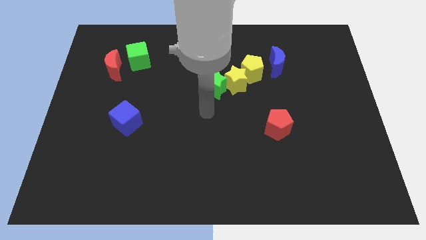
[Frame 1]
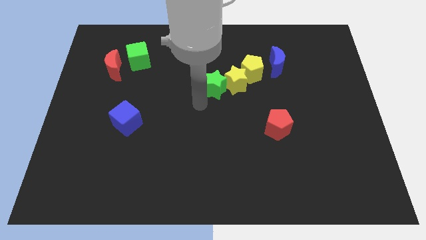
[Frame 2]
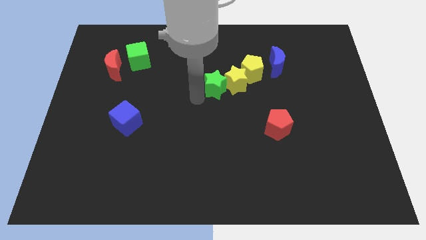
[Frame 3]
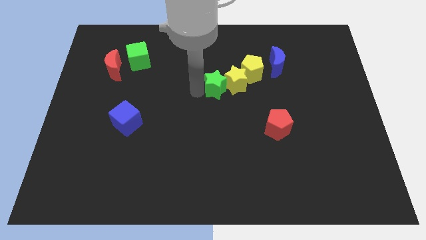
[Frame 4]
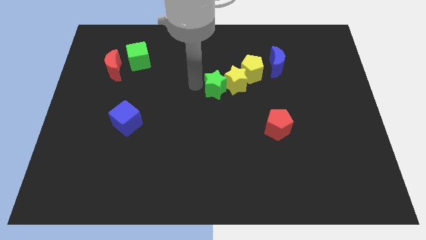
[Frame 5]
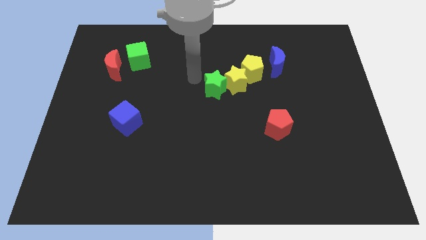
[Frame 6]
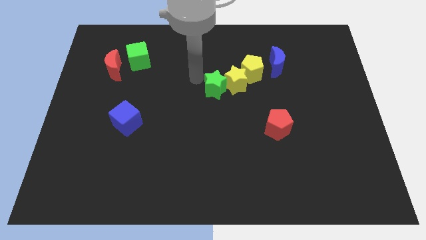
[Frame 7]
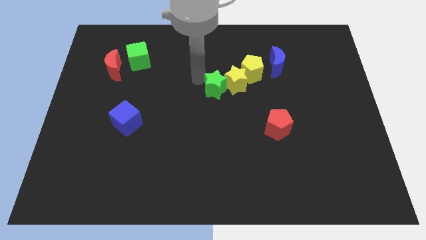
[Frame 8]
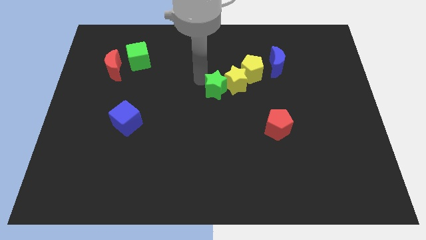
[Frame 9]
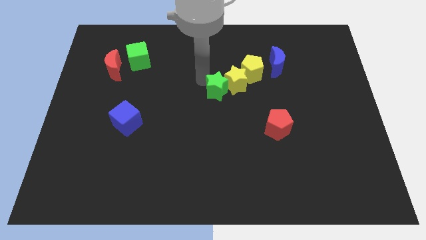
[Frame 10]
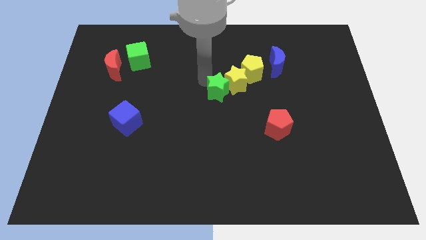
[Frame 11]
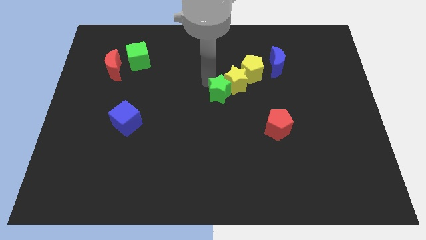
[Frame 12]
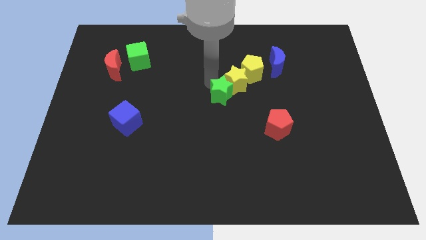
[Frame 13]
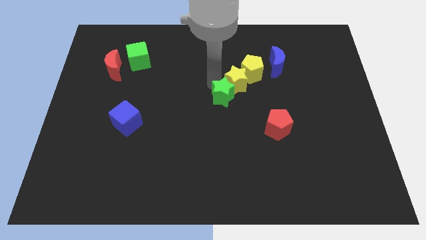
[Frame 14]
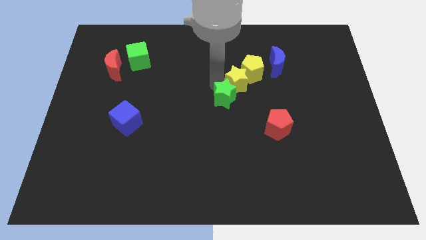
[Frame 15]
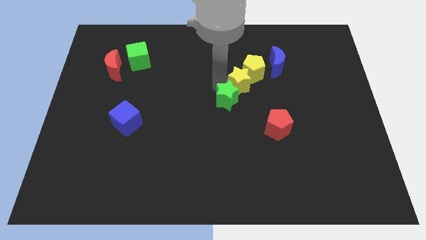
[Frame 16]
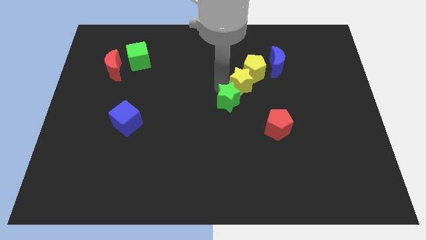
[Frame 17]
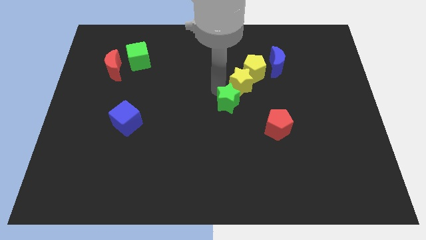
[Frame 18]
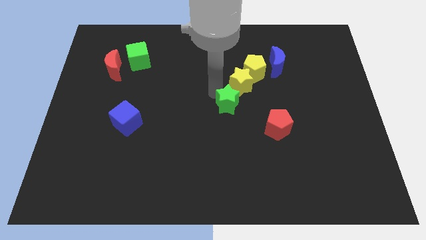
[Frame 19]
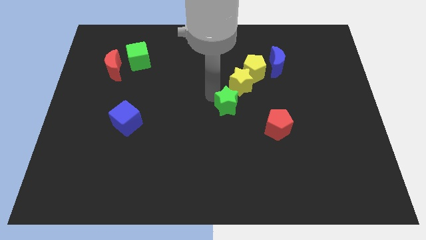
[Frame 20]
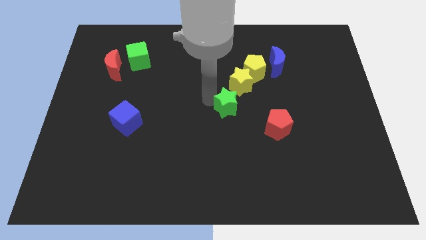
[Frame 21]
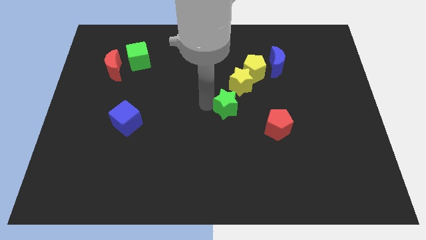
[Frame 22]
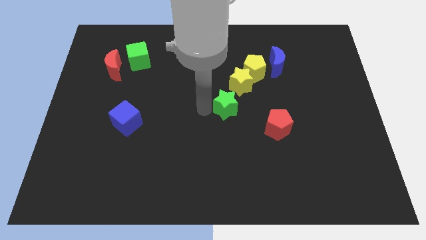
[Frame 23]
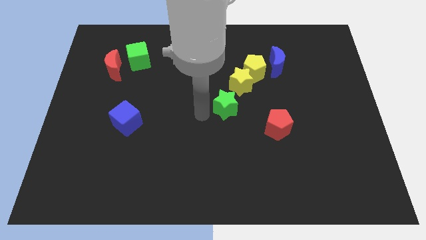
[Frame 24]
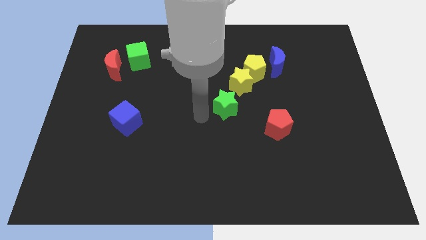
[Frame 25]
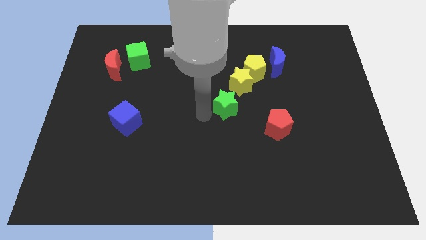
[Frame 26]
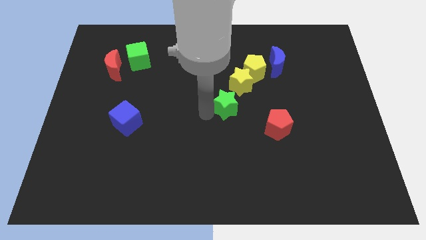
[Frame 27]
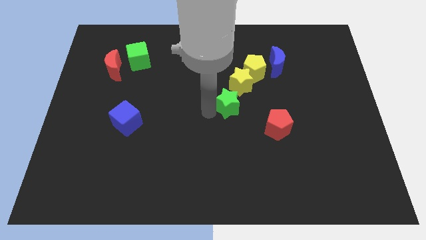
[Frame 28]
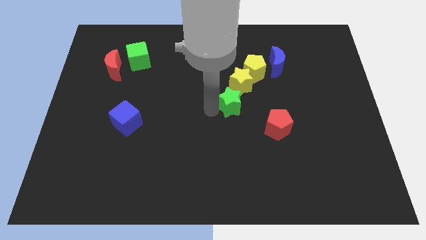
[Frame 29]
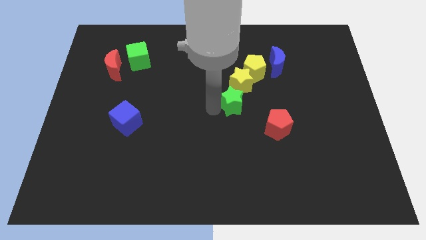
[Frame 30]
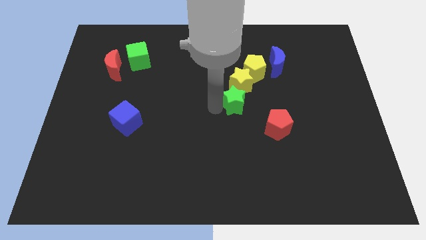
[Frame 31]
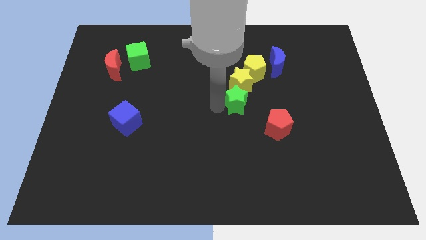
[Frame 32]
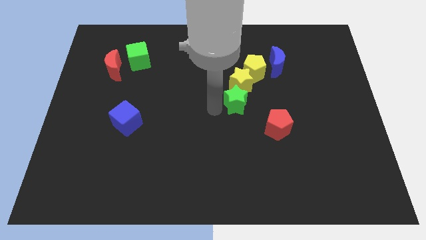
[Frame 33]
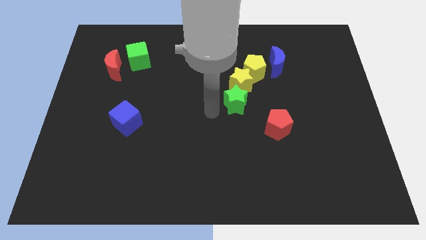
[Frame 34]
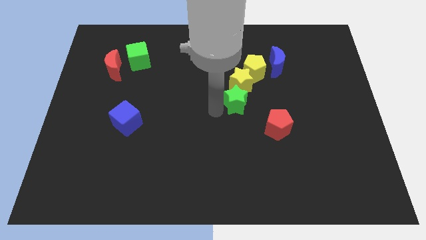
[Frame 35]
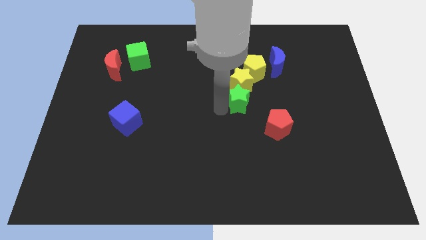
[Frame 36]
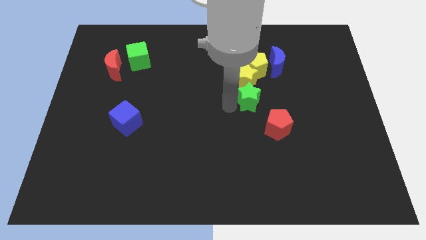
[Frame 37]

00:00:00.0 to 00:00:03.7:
slide the green star a little right

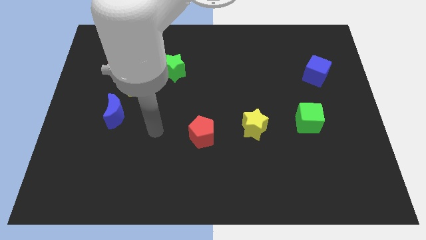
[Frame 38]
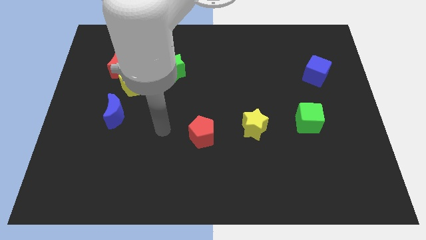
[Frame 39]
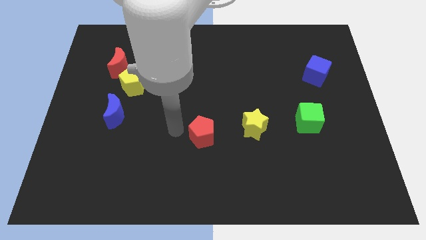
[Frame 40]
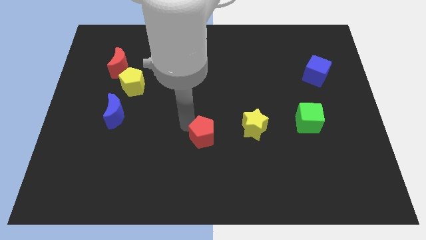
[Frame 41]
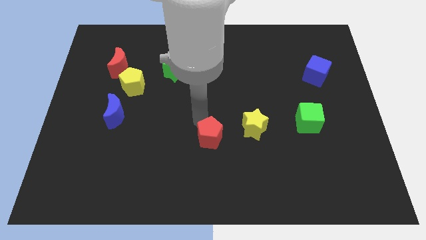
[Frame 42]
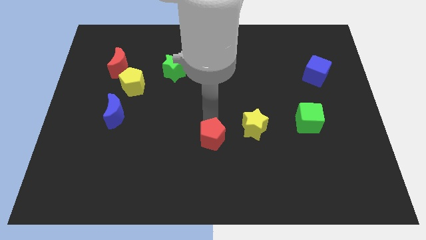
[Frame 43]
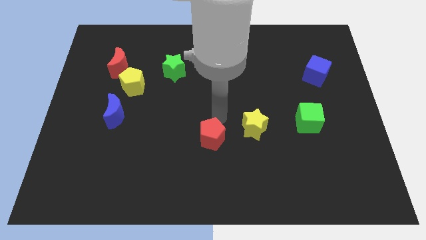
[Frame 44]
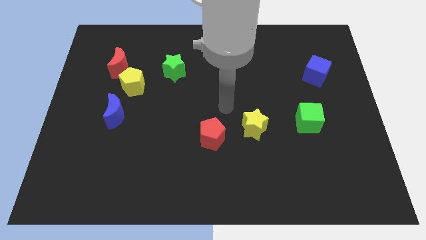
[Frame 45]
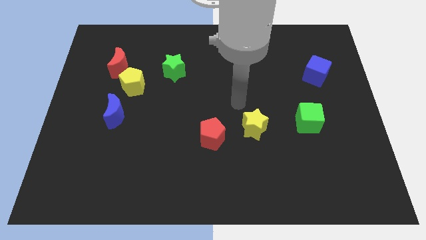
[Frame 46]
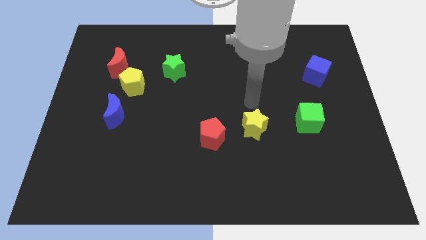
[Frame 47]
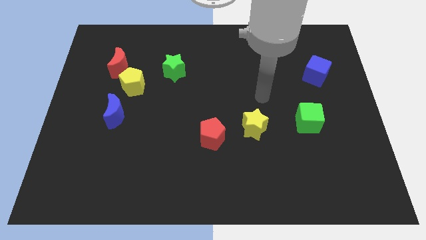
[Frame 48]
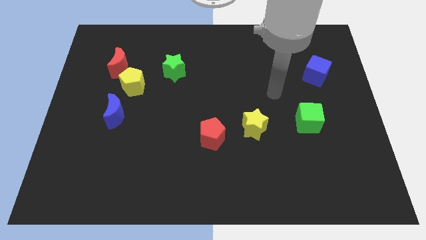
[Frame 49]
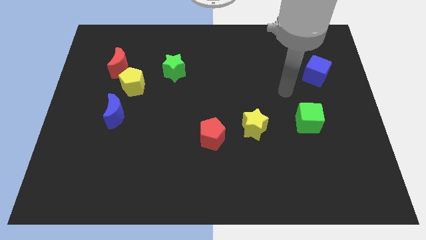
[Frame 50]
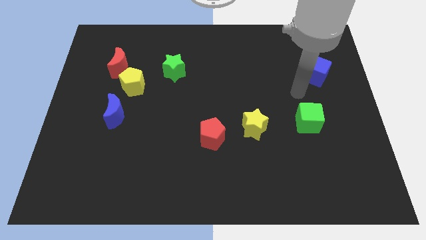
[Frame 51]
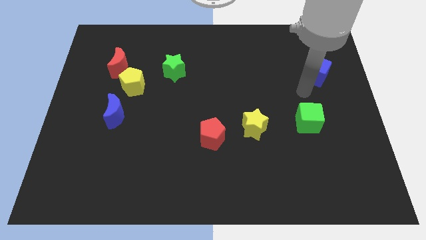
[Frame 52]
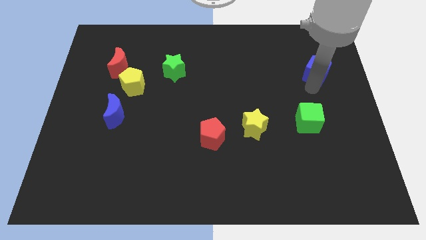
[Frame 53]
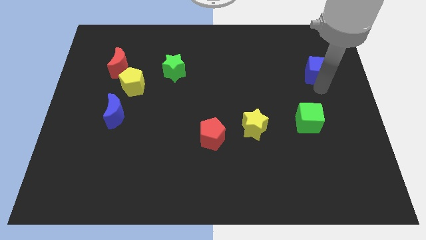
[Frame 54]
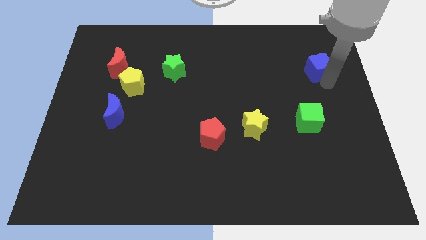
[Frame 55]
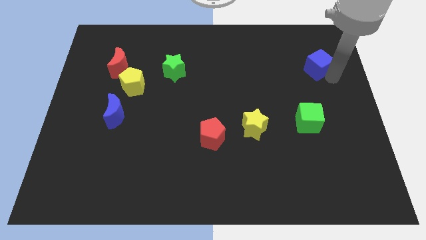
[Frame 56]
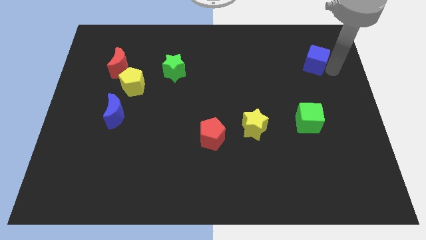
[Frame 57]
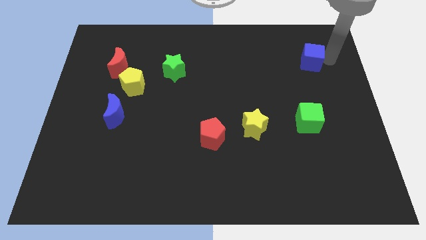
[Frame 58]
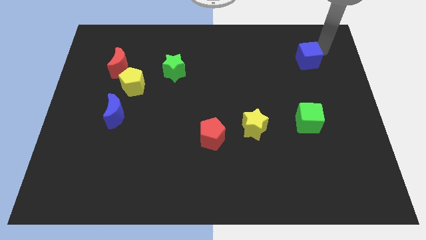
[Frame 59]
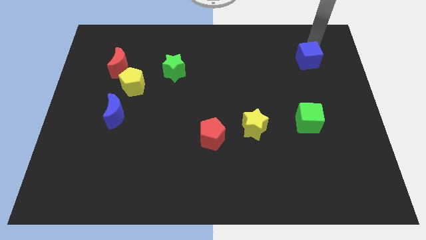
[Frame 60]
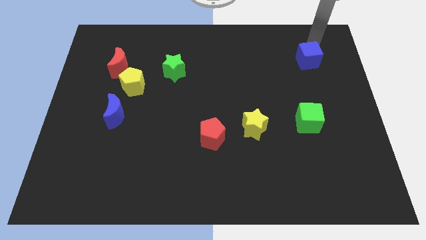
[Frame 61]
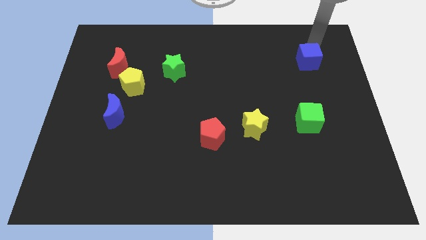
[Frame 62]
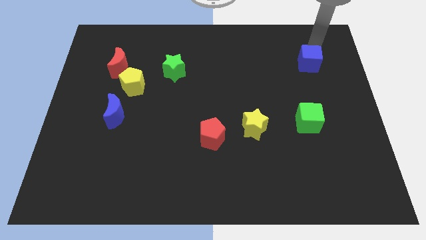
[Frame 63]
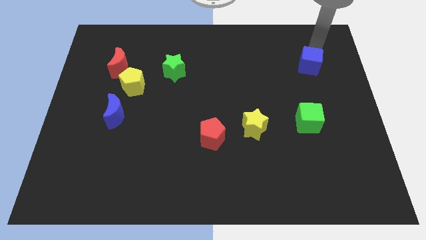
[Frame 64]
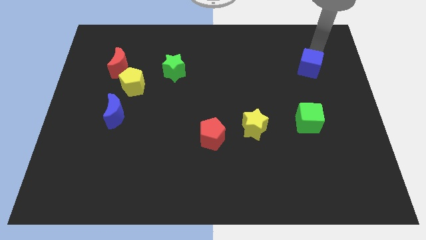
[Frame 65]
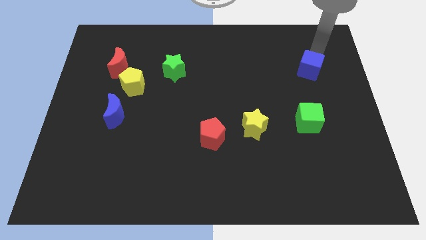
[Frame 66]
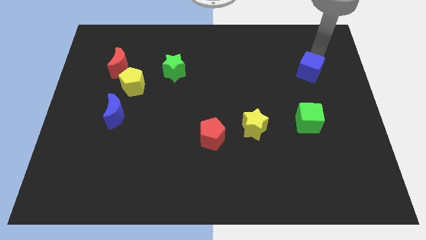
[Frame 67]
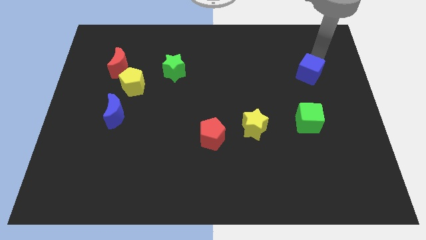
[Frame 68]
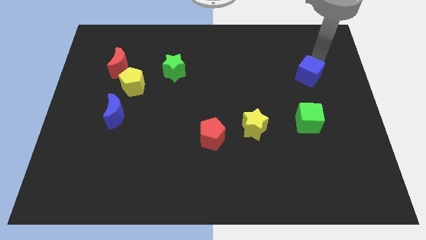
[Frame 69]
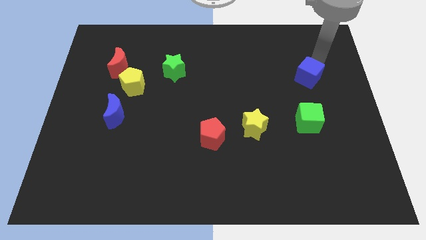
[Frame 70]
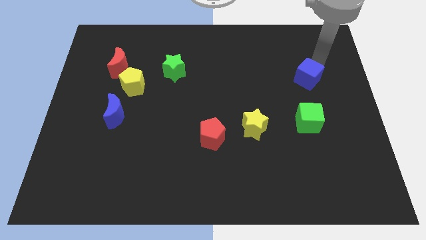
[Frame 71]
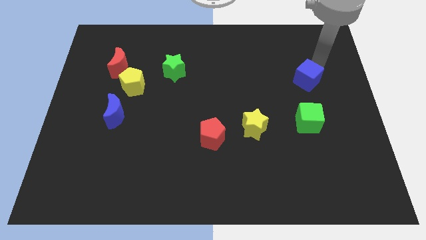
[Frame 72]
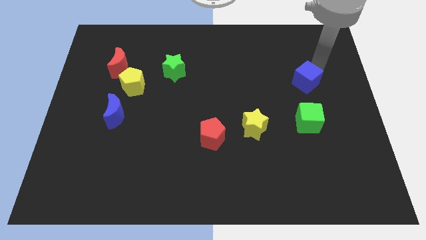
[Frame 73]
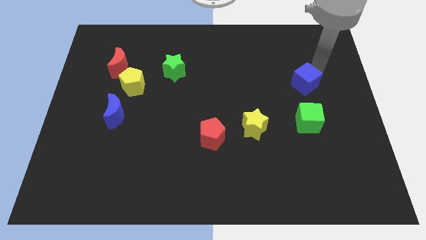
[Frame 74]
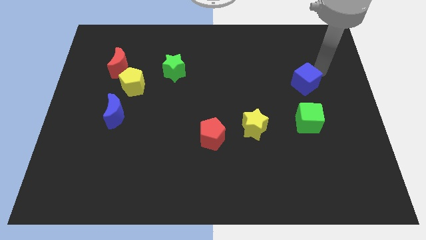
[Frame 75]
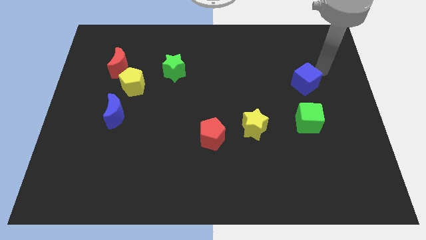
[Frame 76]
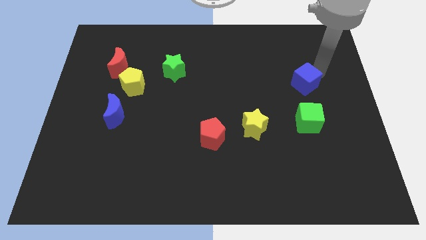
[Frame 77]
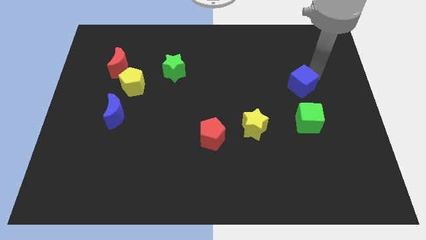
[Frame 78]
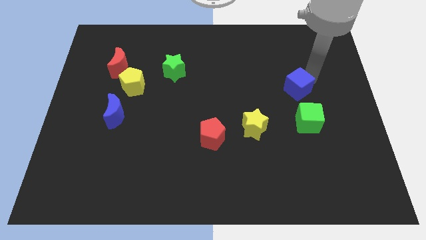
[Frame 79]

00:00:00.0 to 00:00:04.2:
slightly slide the blue cube down and then left
